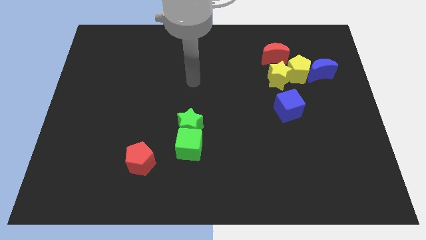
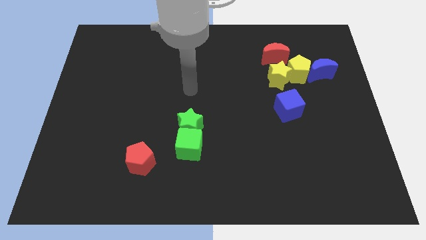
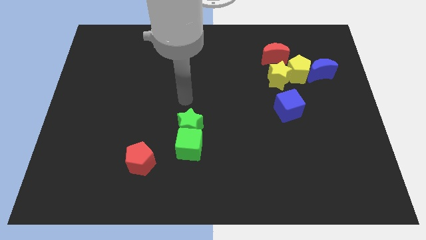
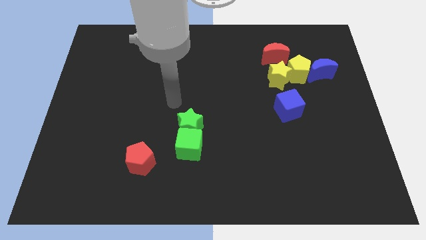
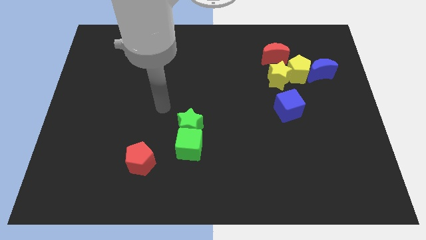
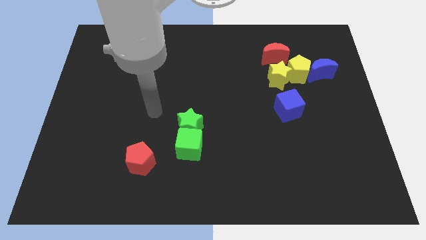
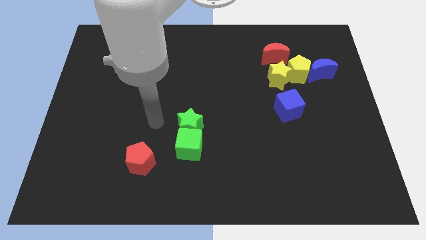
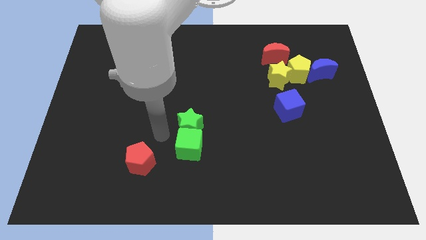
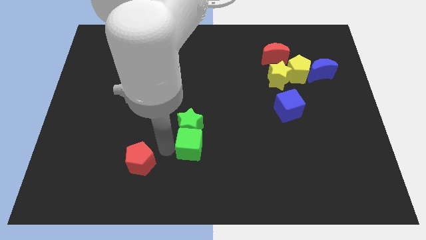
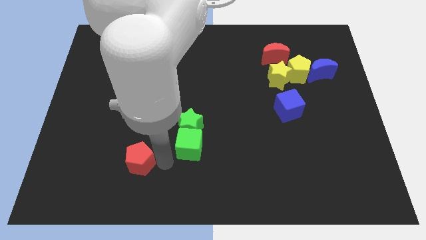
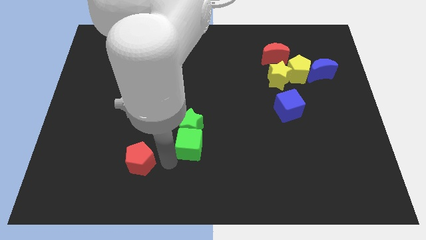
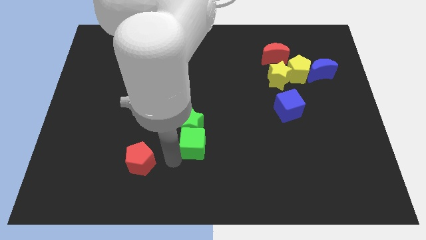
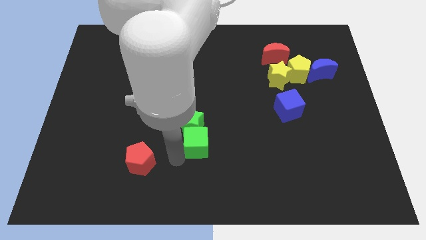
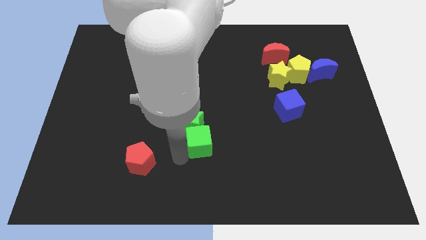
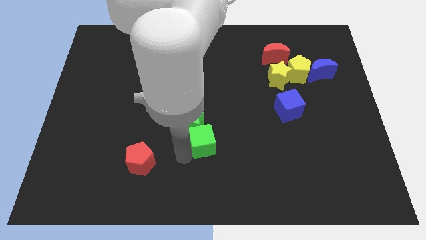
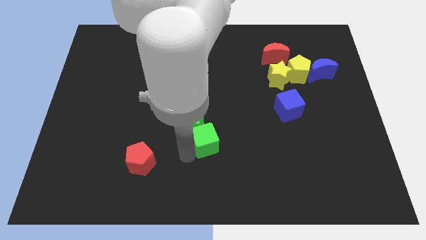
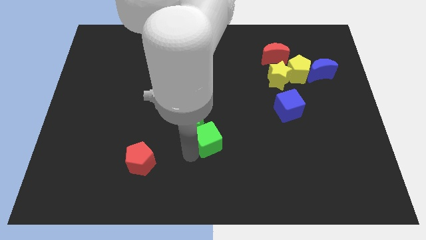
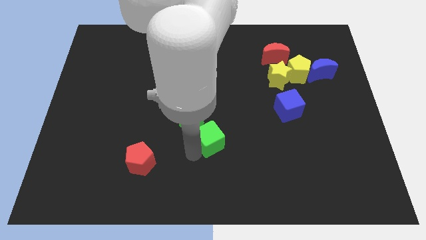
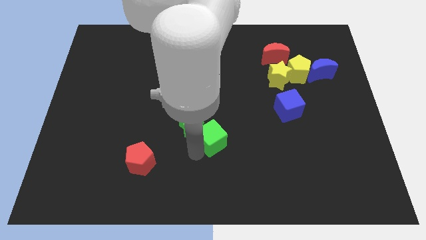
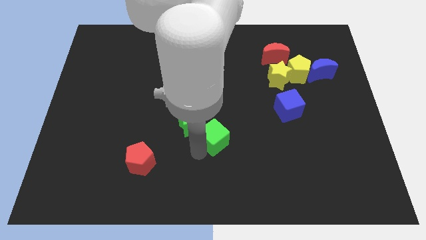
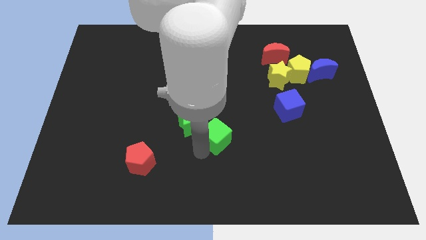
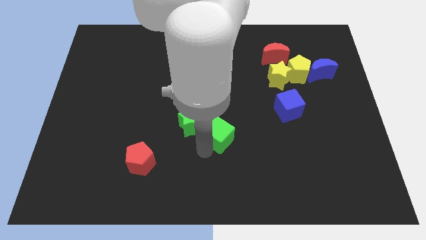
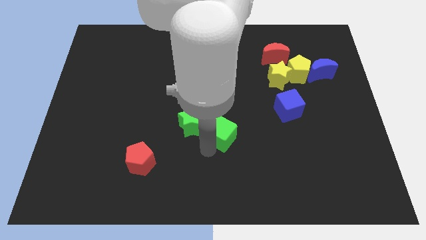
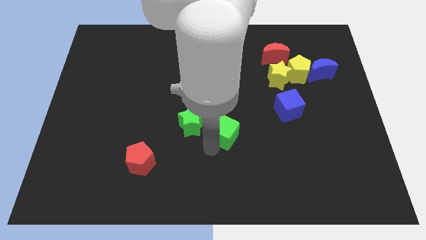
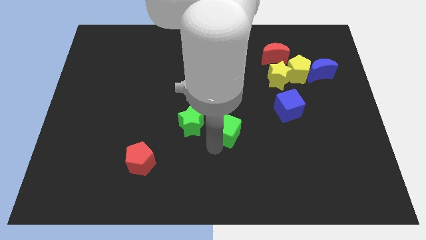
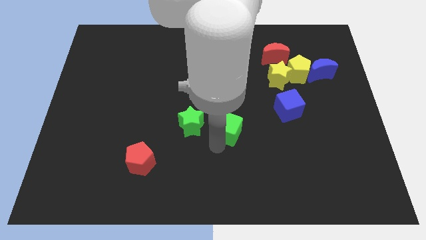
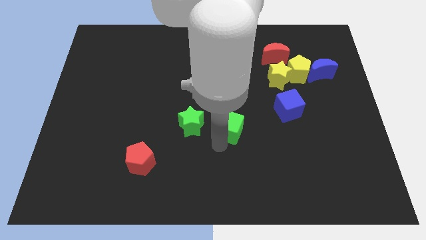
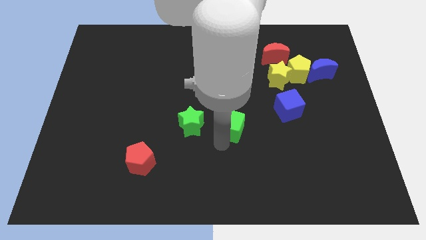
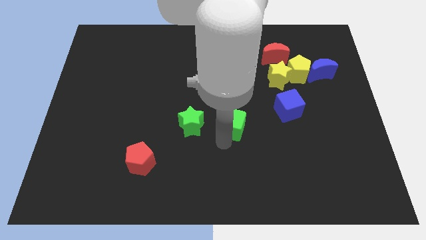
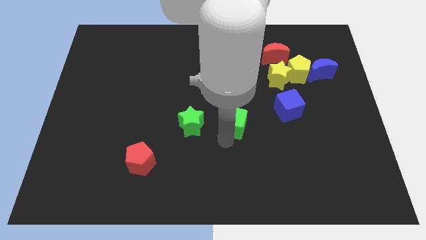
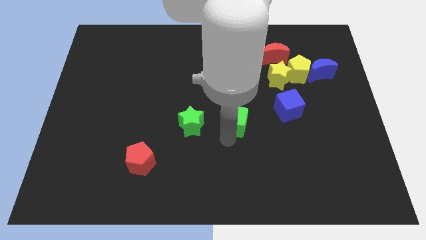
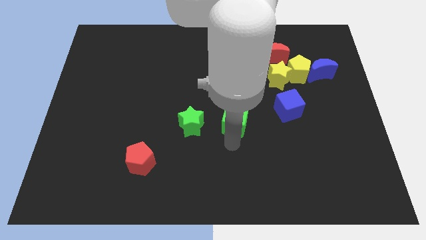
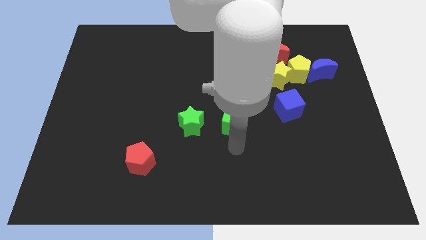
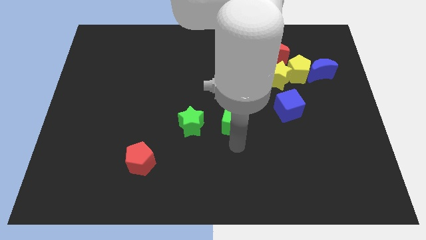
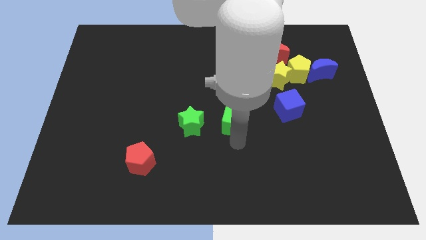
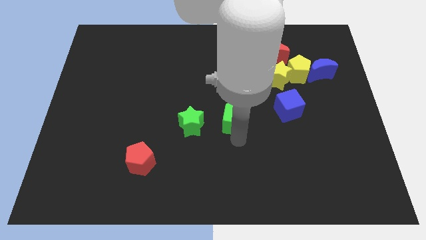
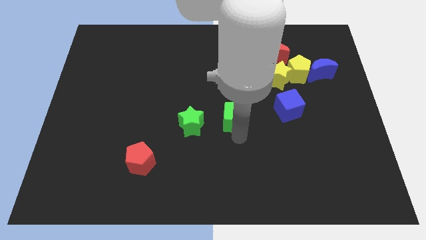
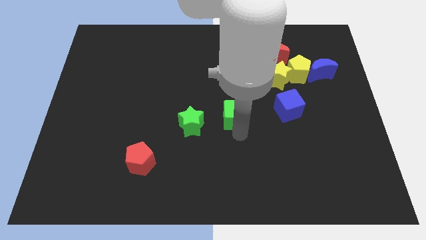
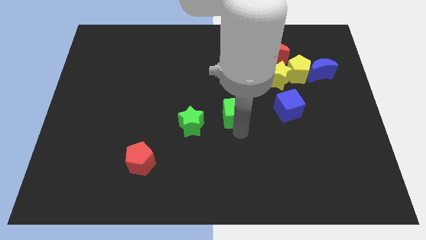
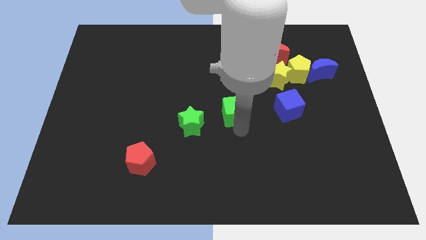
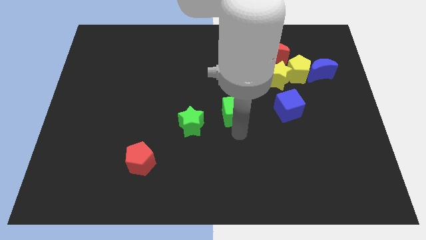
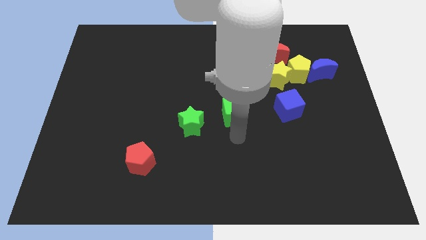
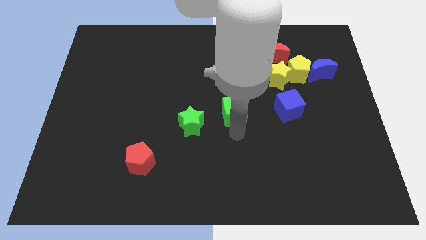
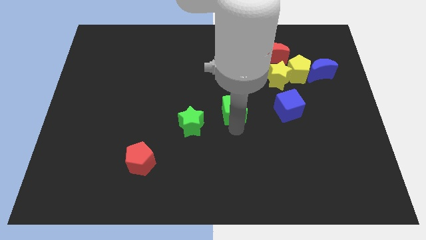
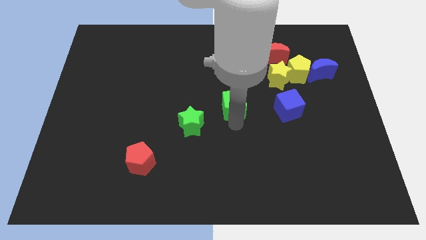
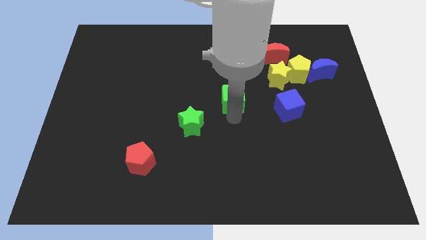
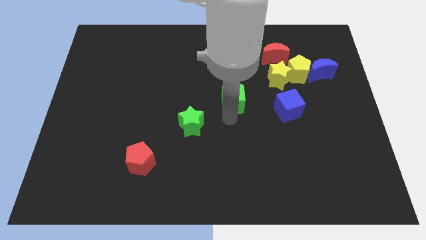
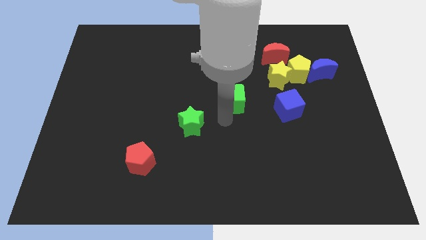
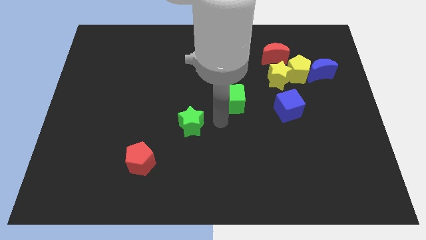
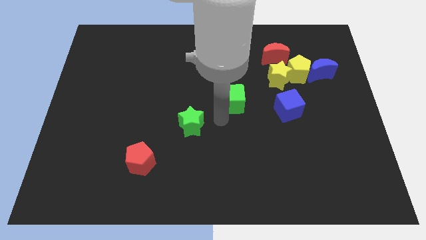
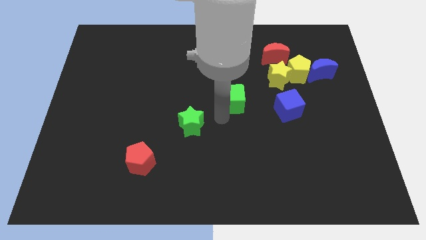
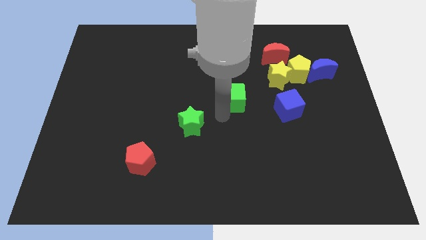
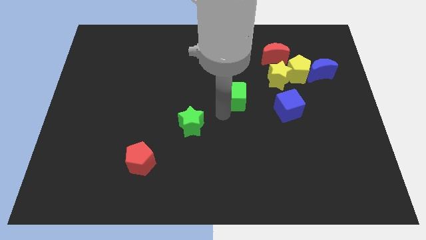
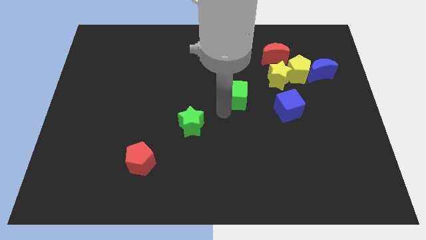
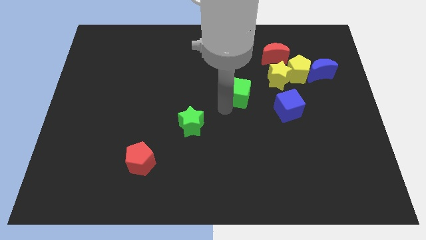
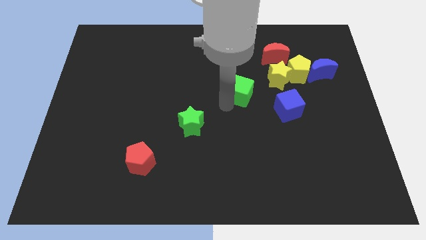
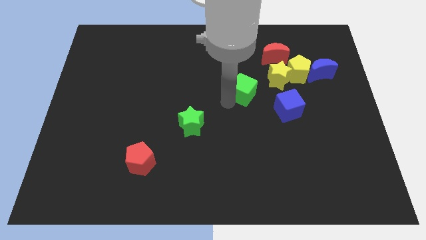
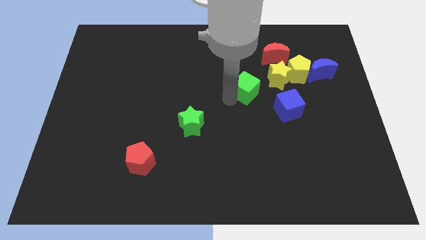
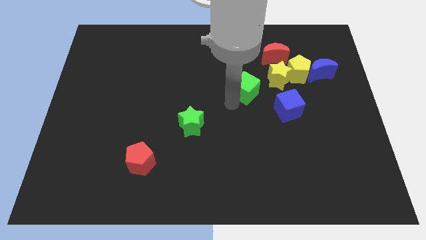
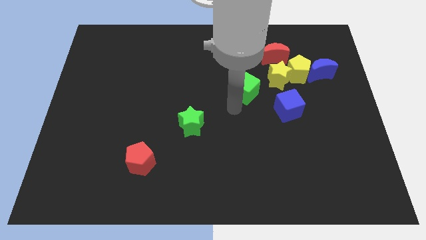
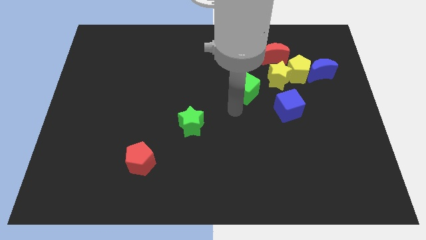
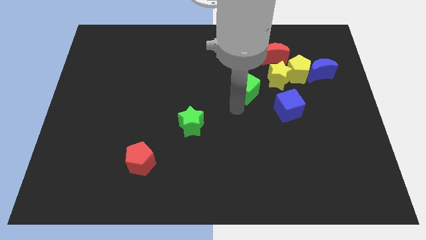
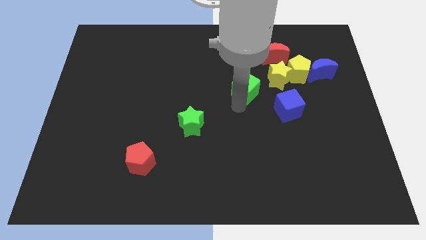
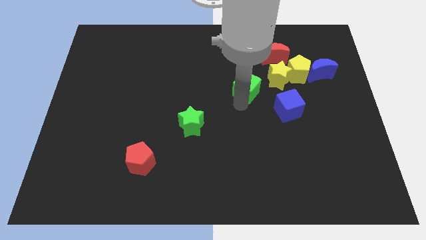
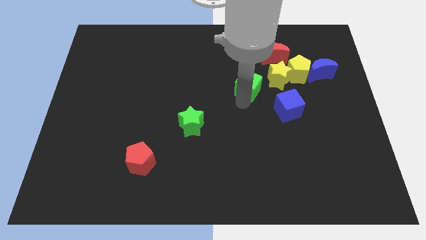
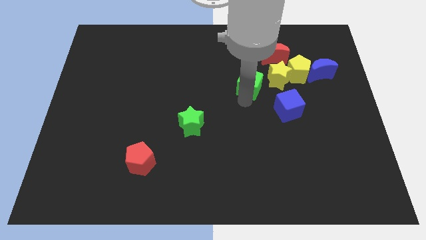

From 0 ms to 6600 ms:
slide the green cube to the bottom left side of the red moon

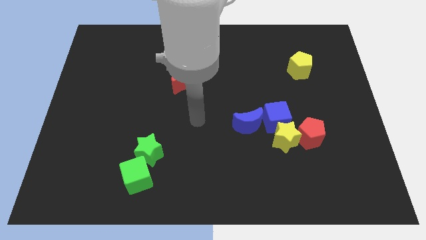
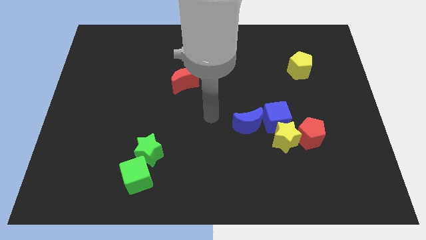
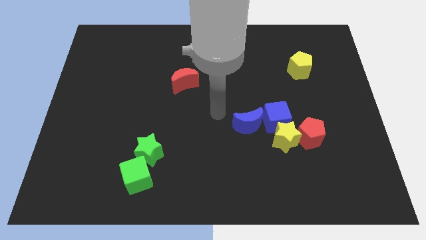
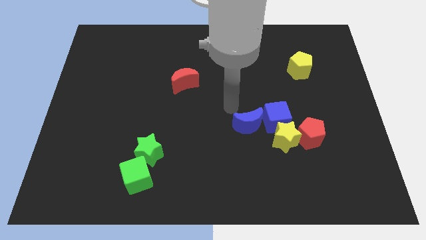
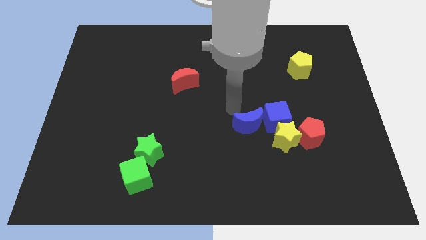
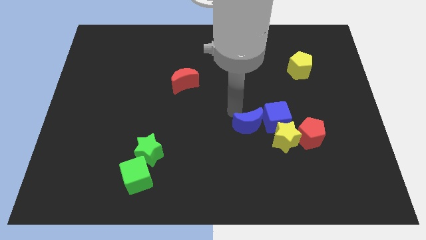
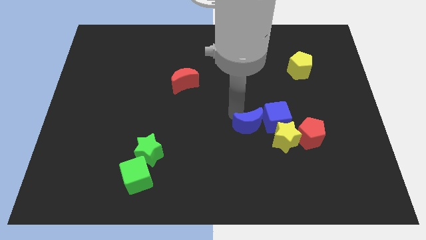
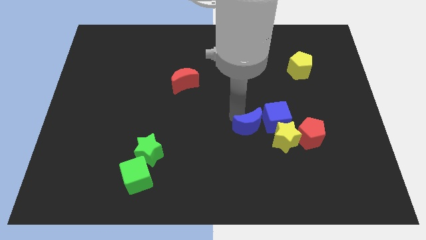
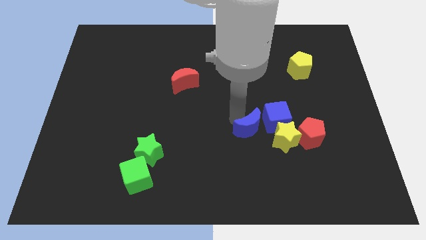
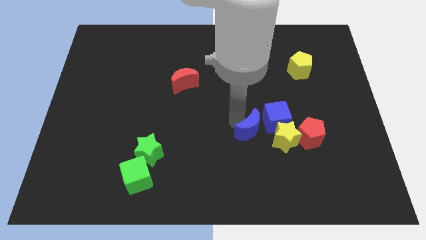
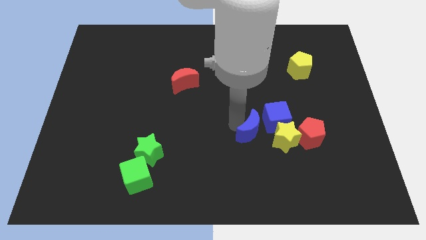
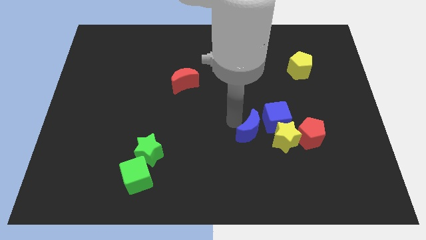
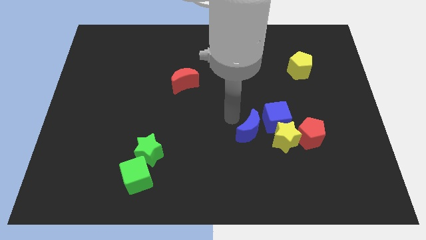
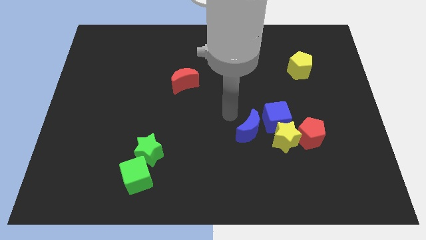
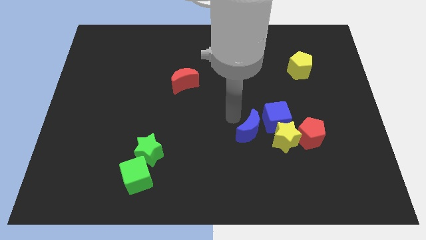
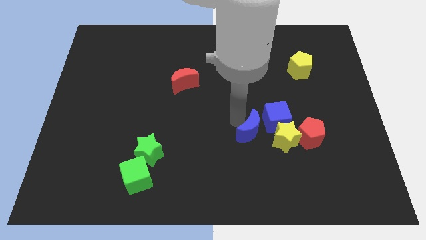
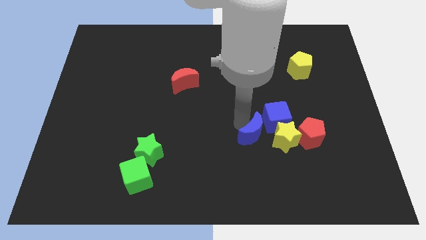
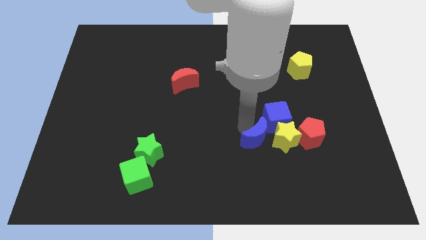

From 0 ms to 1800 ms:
move the blue moon to the bottom of the blue cube
